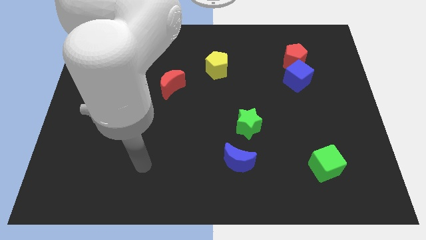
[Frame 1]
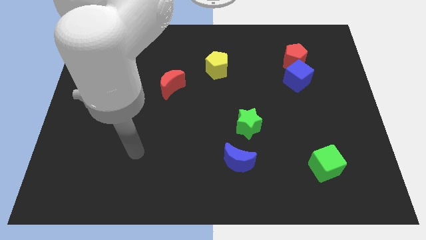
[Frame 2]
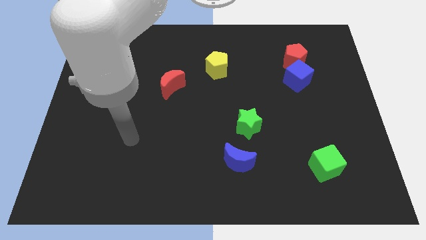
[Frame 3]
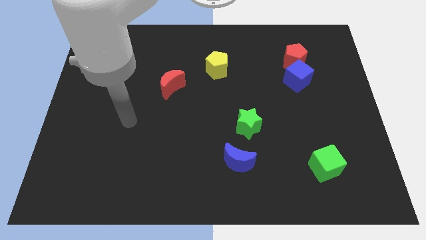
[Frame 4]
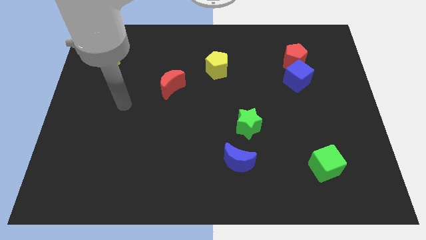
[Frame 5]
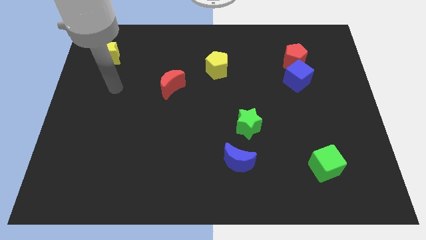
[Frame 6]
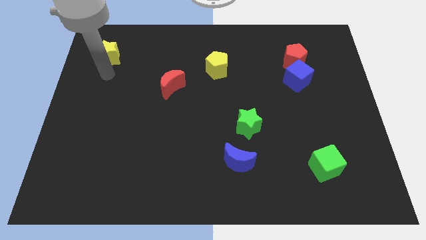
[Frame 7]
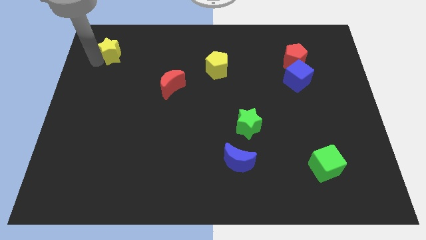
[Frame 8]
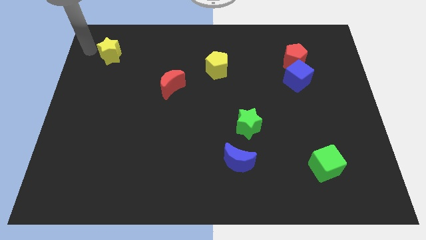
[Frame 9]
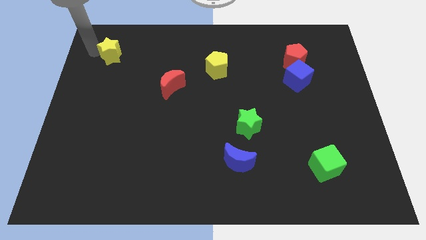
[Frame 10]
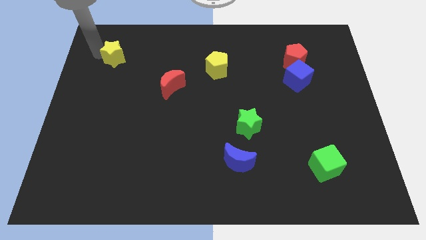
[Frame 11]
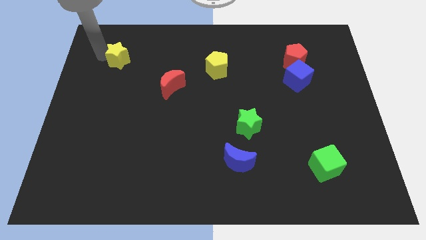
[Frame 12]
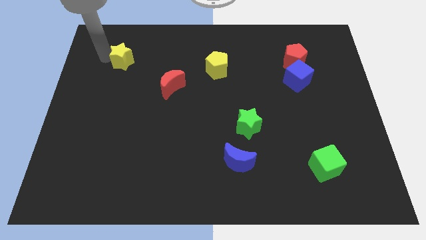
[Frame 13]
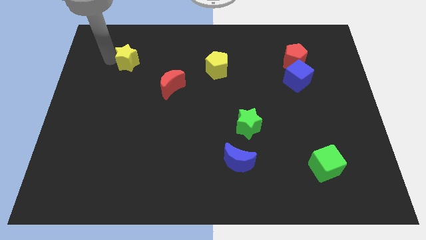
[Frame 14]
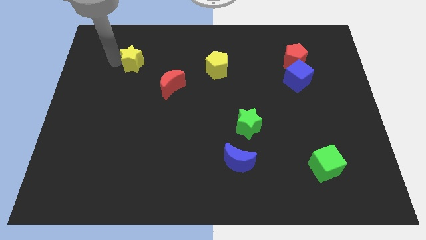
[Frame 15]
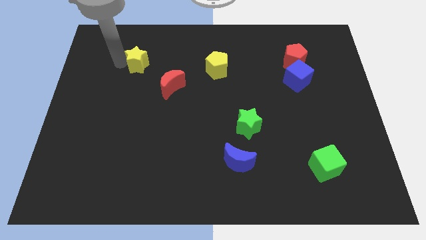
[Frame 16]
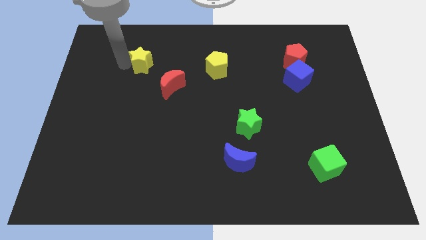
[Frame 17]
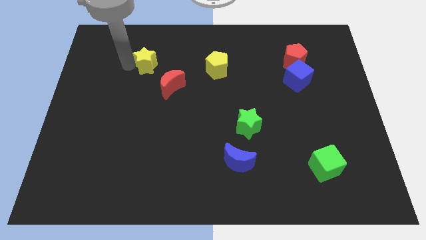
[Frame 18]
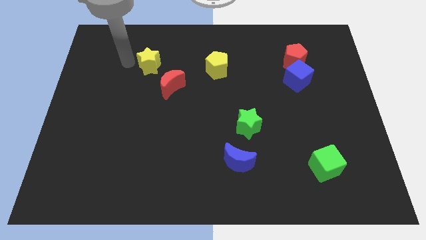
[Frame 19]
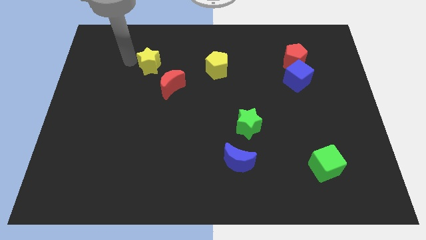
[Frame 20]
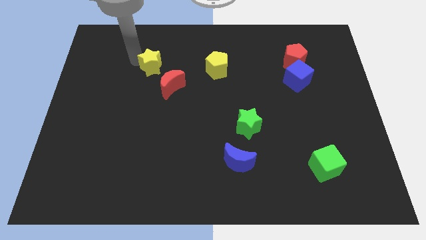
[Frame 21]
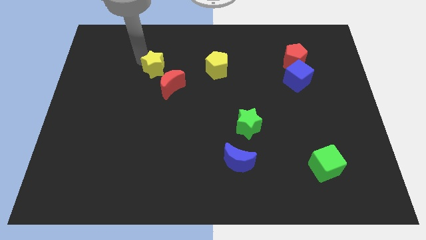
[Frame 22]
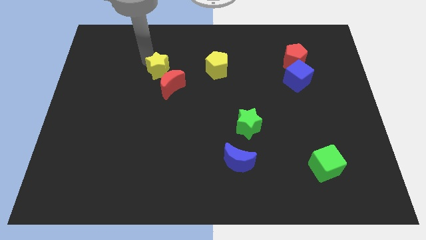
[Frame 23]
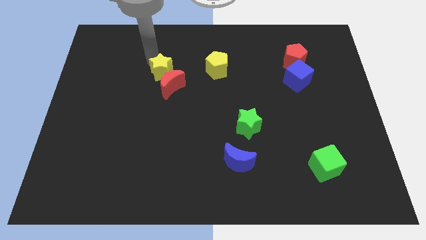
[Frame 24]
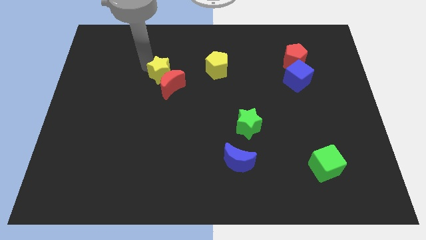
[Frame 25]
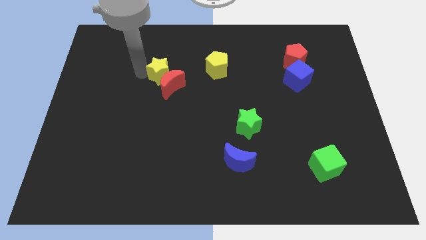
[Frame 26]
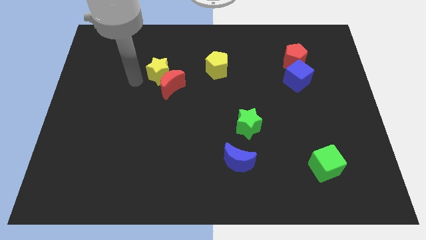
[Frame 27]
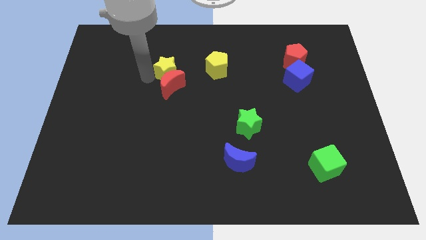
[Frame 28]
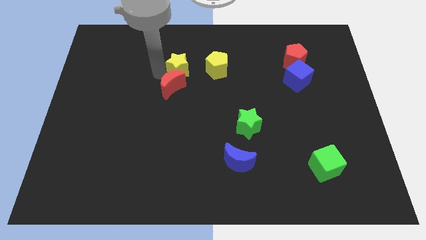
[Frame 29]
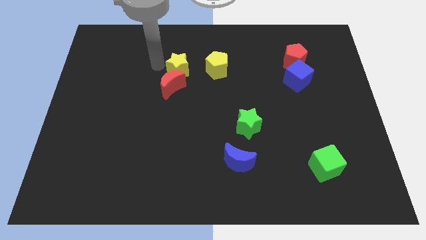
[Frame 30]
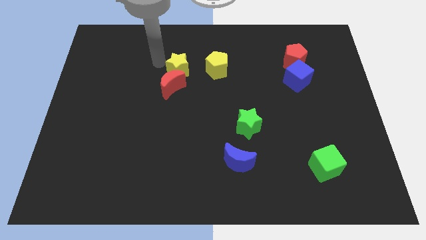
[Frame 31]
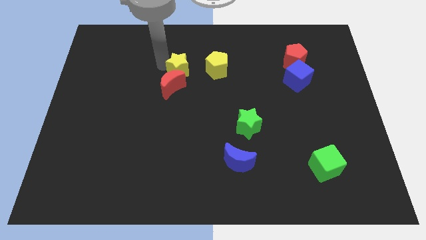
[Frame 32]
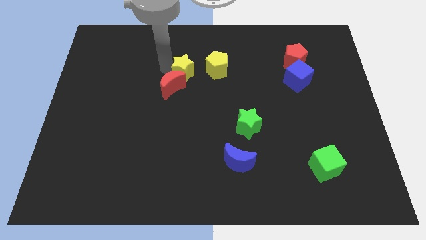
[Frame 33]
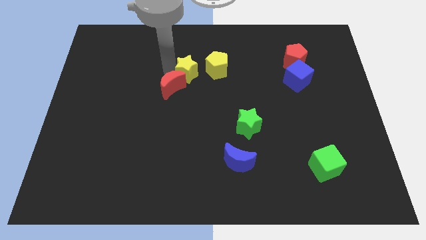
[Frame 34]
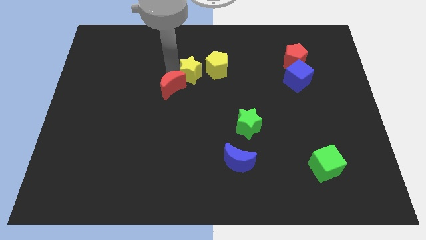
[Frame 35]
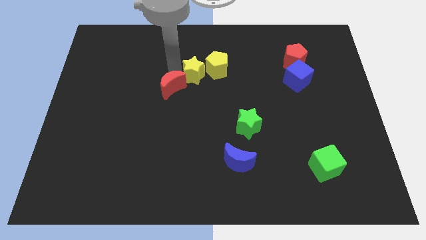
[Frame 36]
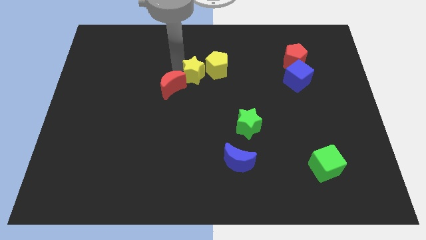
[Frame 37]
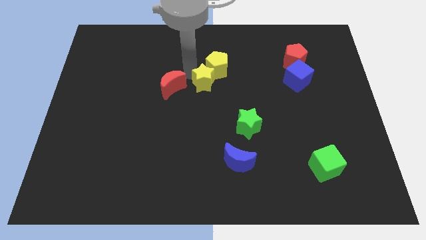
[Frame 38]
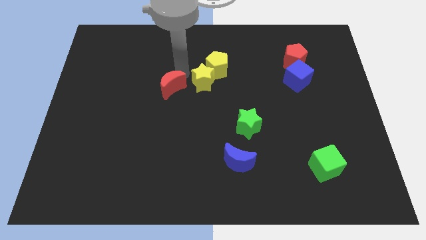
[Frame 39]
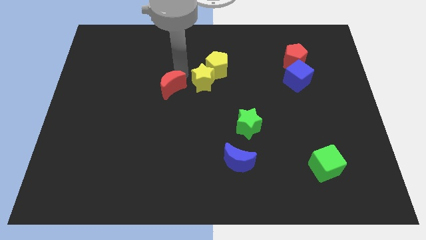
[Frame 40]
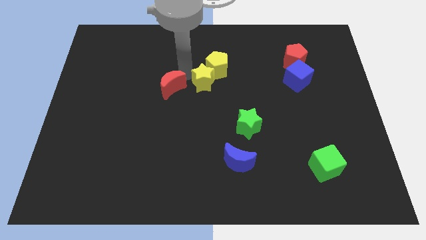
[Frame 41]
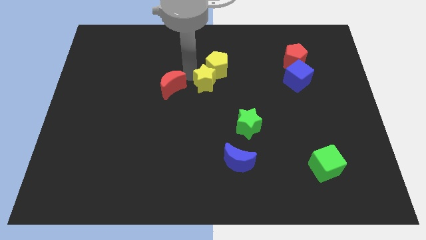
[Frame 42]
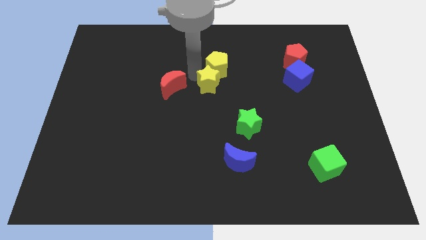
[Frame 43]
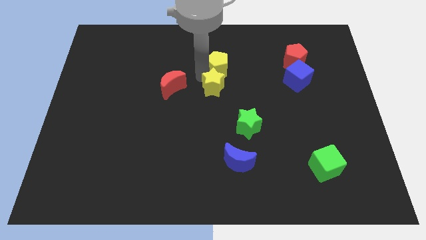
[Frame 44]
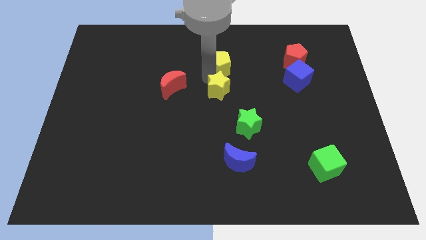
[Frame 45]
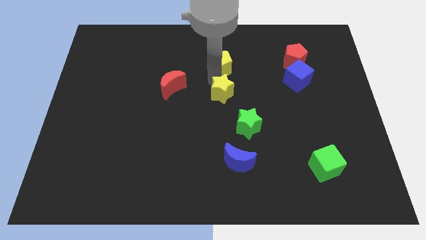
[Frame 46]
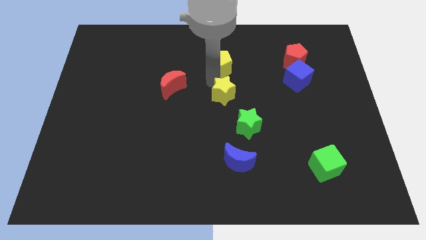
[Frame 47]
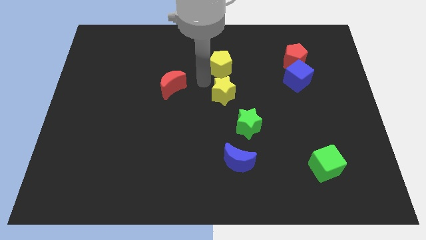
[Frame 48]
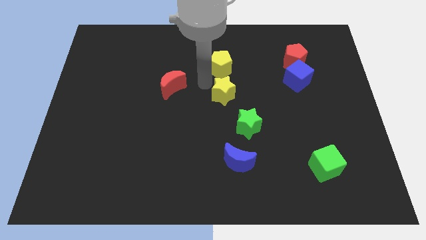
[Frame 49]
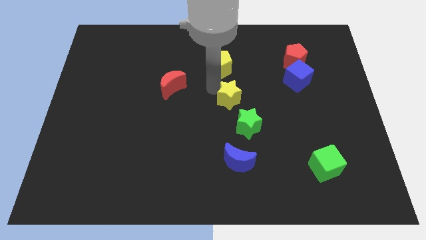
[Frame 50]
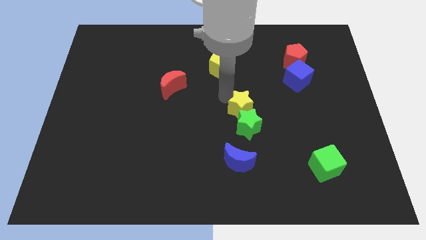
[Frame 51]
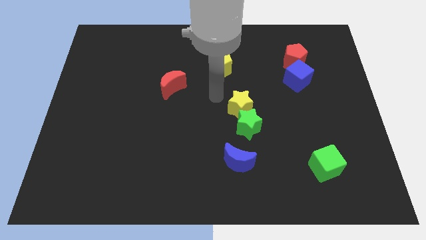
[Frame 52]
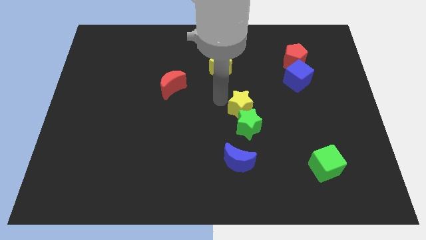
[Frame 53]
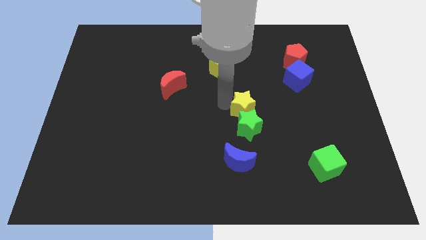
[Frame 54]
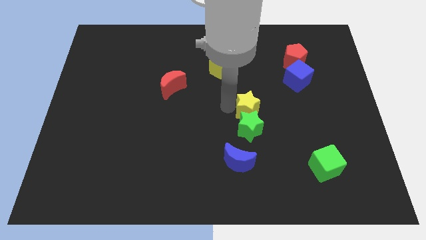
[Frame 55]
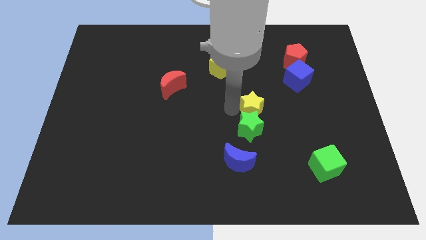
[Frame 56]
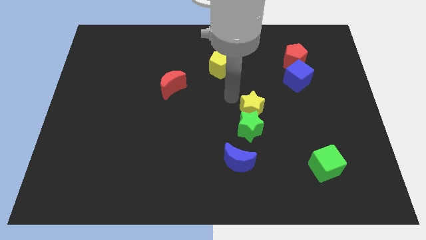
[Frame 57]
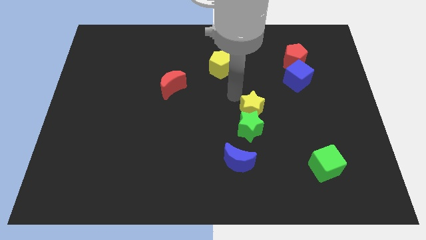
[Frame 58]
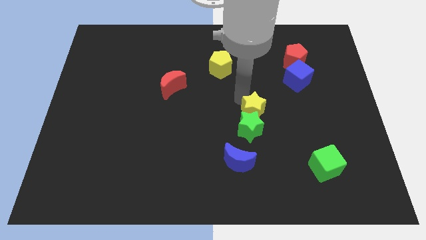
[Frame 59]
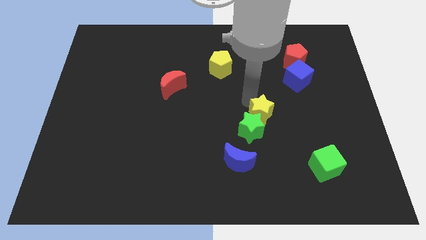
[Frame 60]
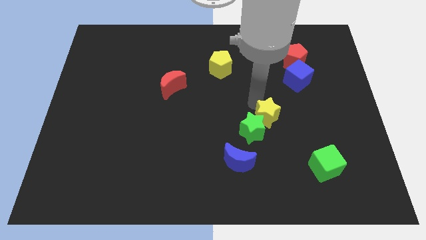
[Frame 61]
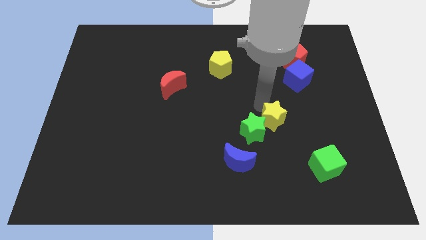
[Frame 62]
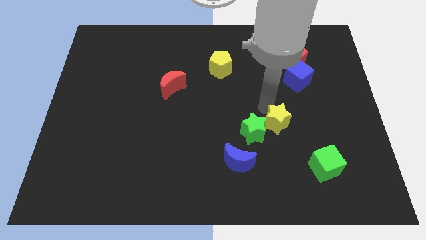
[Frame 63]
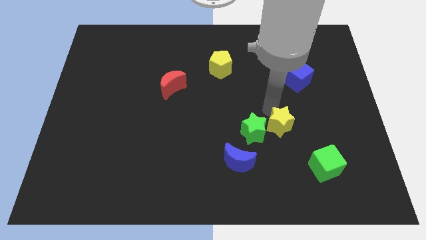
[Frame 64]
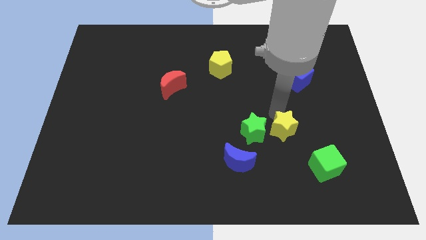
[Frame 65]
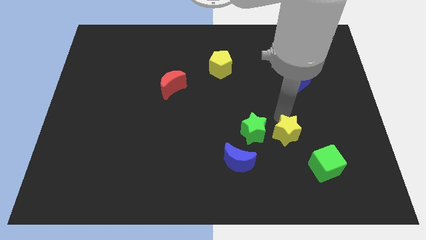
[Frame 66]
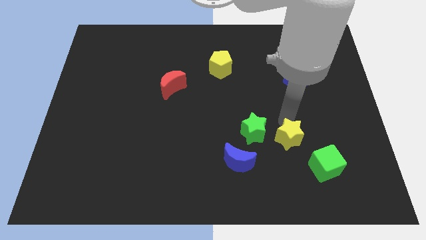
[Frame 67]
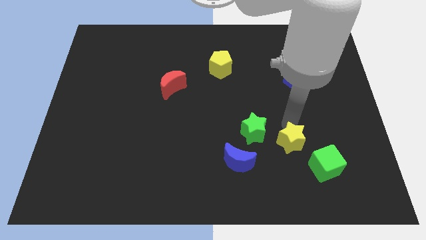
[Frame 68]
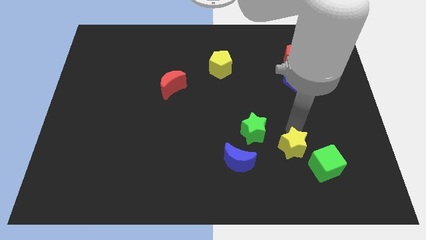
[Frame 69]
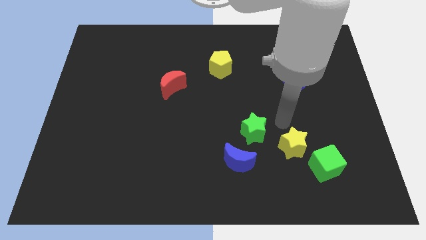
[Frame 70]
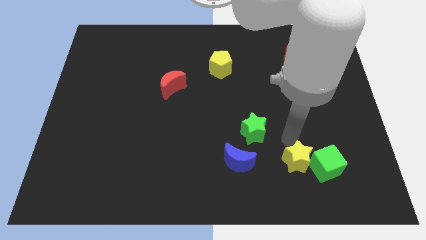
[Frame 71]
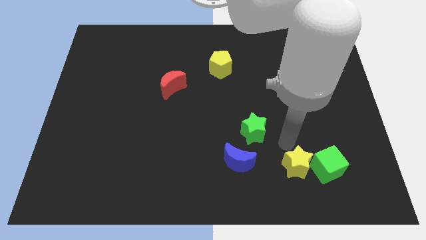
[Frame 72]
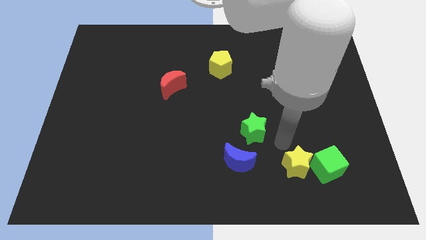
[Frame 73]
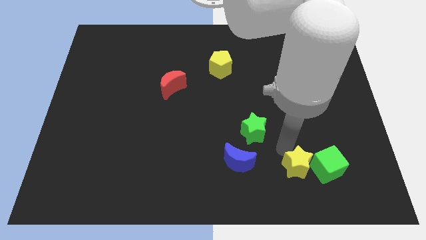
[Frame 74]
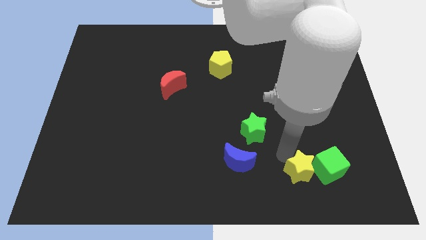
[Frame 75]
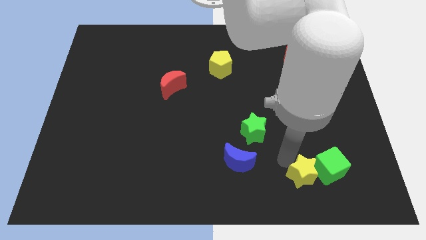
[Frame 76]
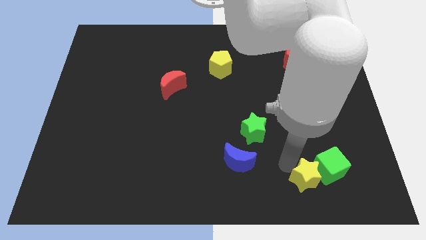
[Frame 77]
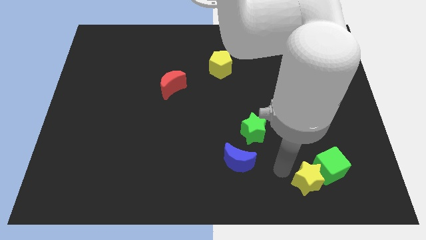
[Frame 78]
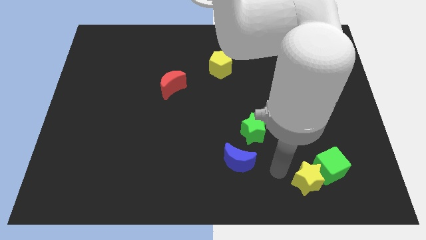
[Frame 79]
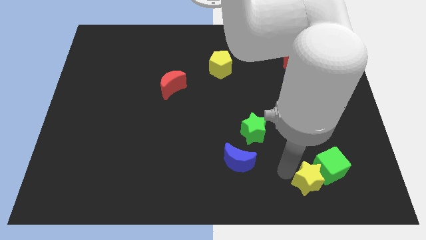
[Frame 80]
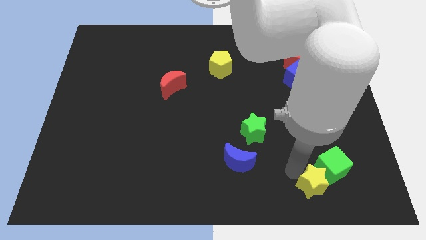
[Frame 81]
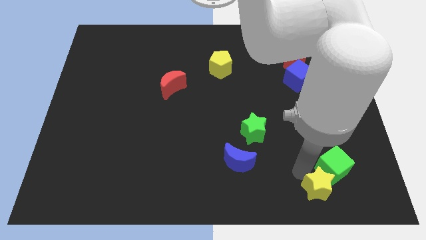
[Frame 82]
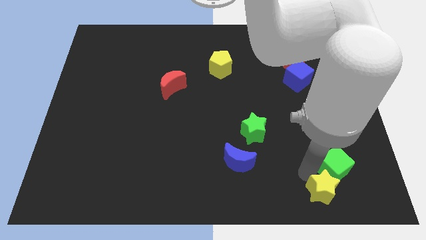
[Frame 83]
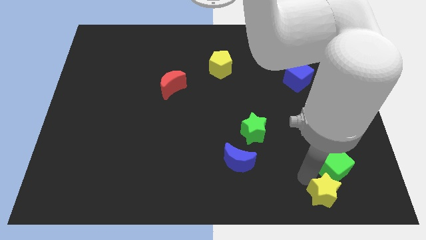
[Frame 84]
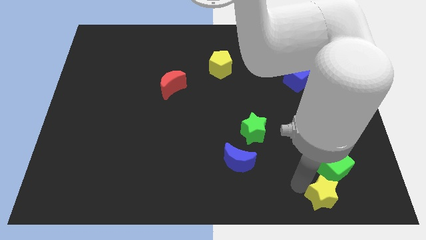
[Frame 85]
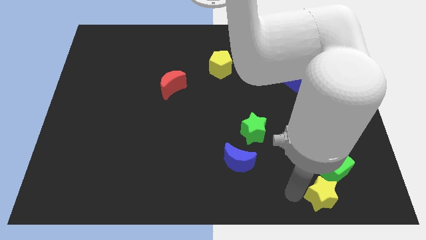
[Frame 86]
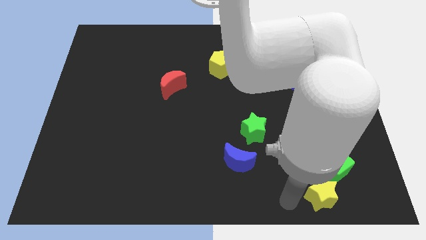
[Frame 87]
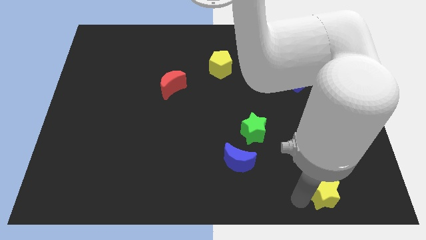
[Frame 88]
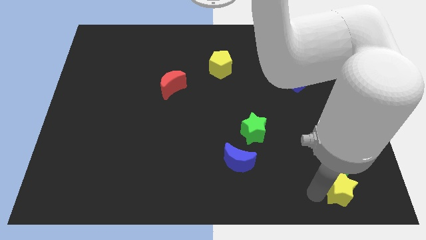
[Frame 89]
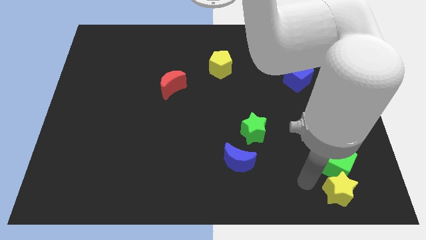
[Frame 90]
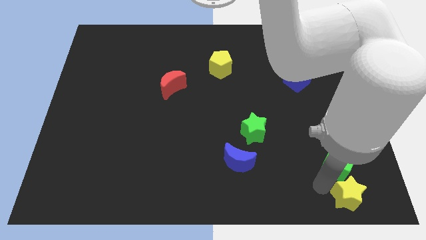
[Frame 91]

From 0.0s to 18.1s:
put the yellow star to the bottom right of the board
